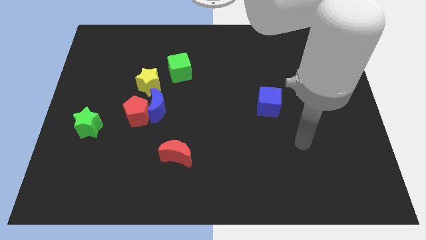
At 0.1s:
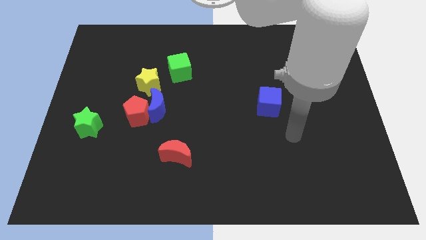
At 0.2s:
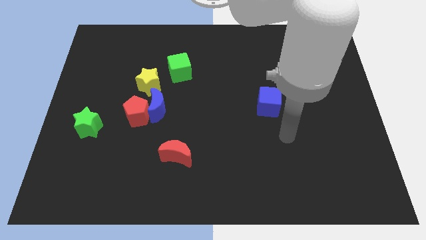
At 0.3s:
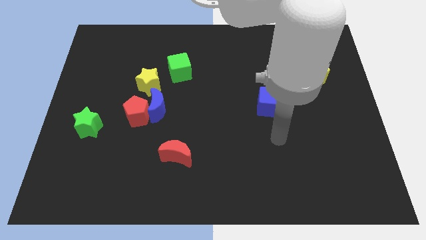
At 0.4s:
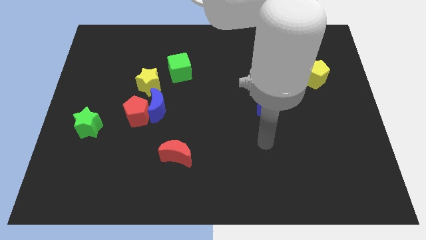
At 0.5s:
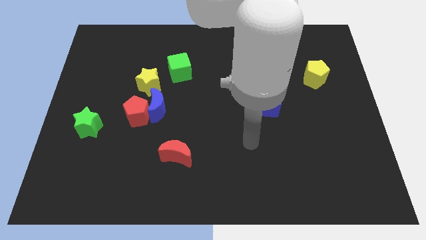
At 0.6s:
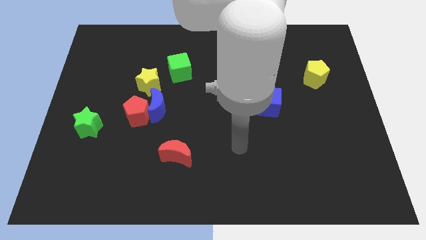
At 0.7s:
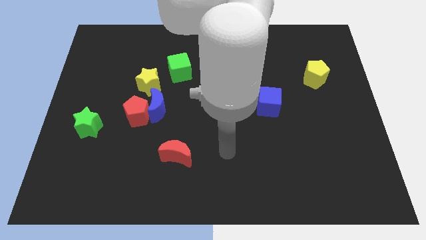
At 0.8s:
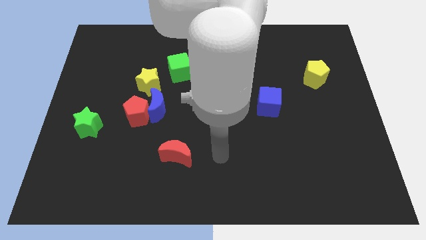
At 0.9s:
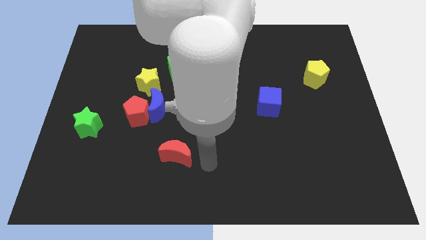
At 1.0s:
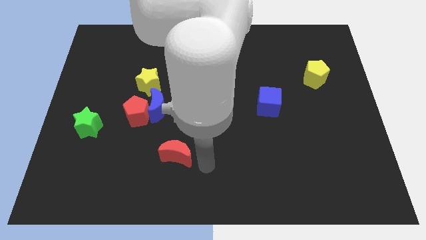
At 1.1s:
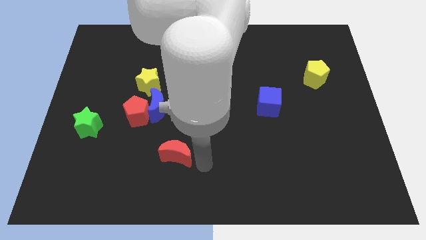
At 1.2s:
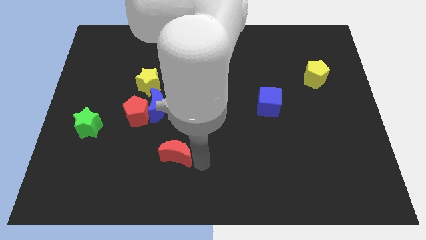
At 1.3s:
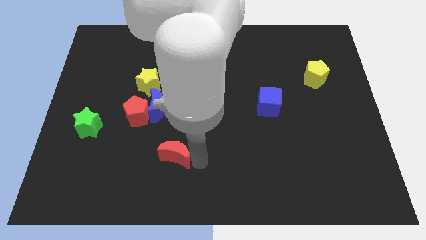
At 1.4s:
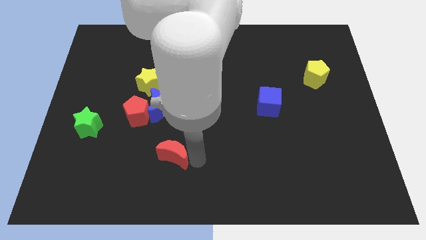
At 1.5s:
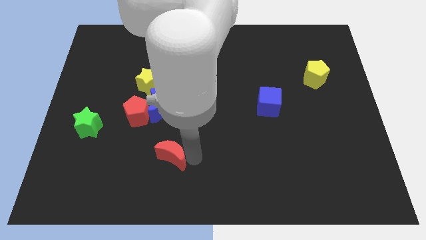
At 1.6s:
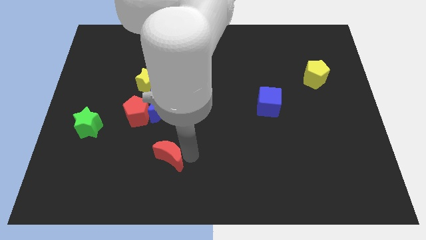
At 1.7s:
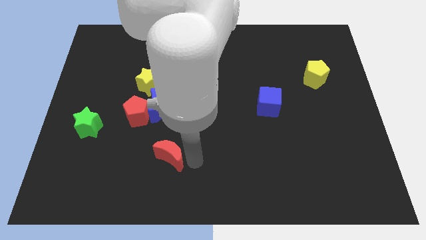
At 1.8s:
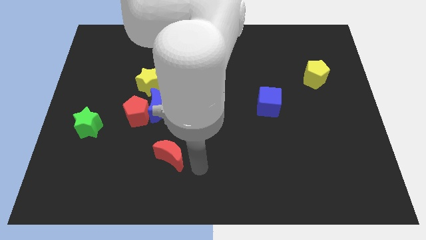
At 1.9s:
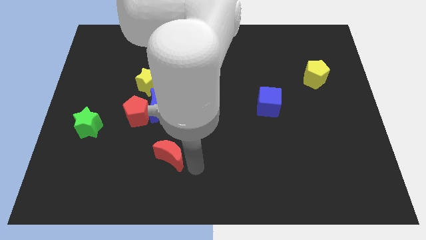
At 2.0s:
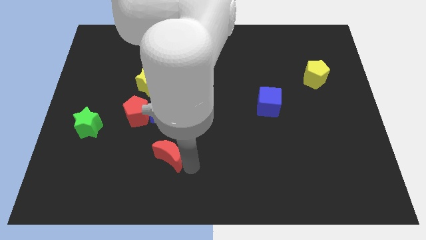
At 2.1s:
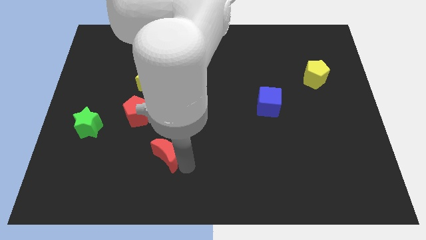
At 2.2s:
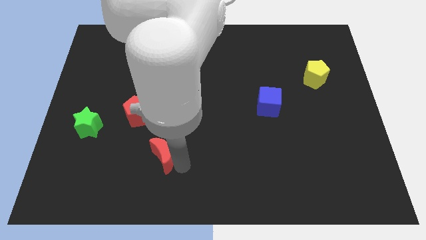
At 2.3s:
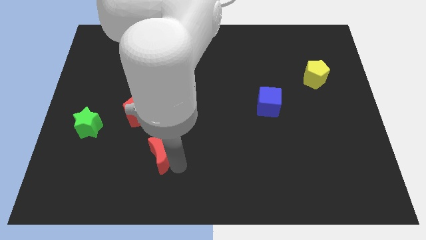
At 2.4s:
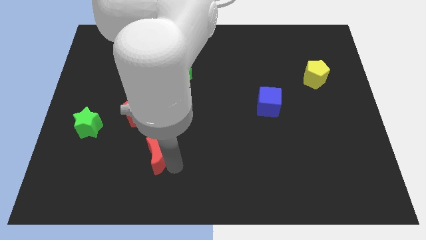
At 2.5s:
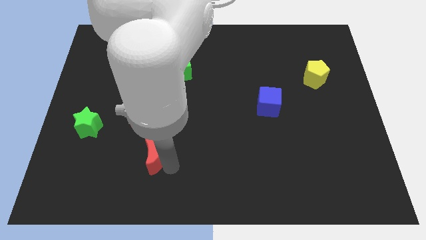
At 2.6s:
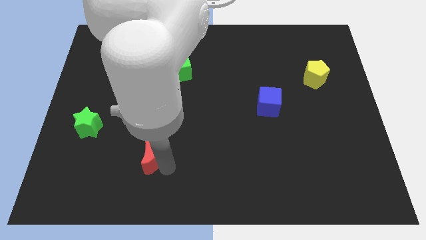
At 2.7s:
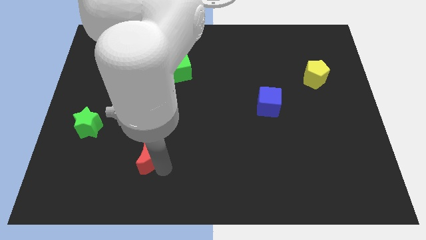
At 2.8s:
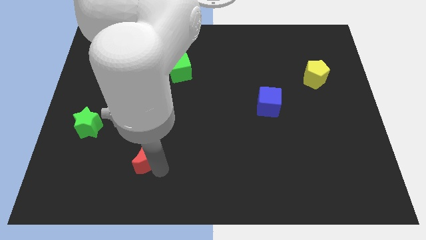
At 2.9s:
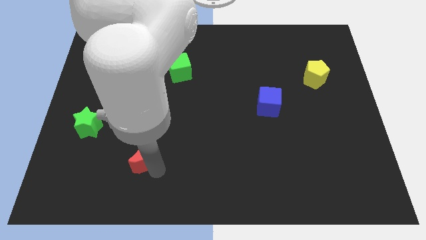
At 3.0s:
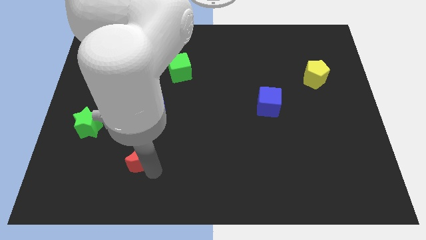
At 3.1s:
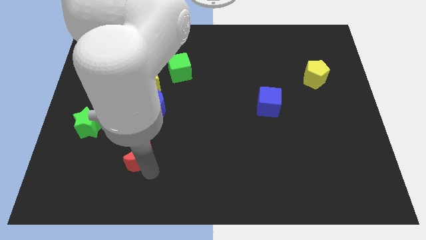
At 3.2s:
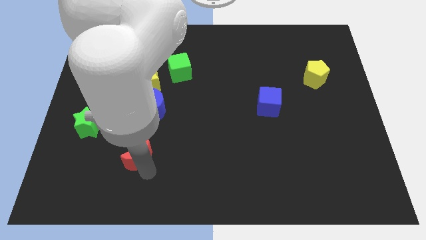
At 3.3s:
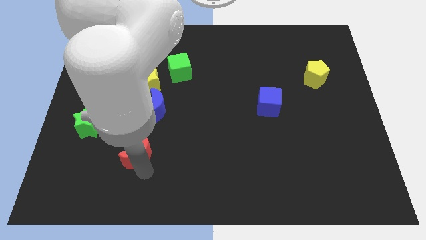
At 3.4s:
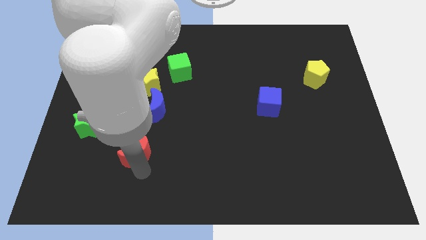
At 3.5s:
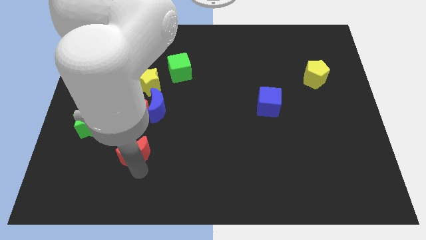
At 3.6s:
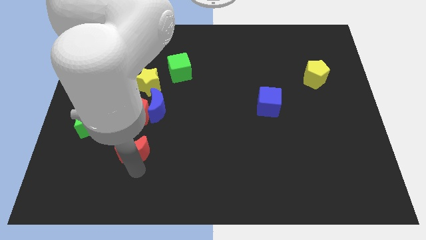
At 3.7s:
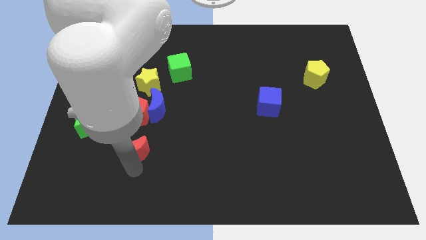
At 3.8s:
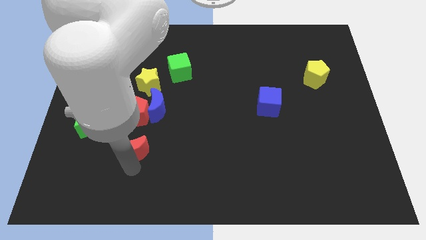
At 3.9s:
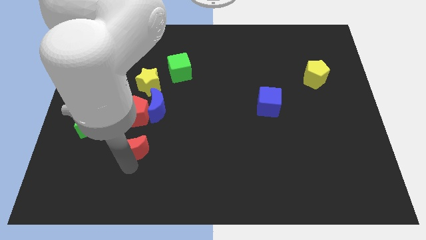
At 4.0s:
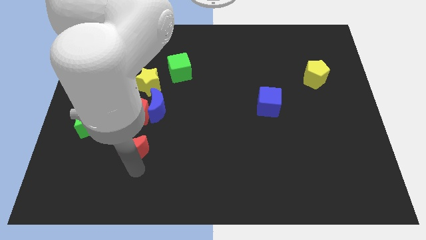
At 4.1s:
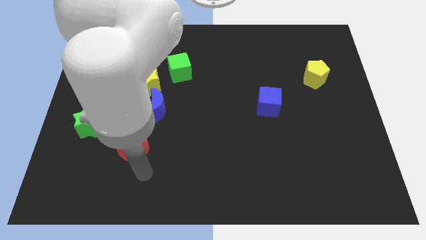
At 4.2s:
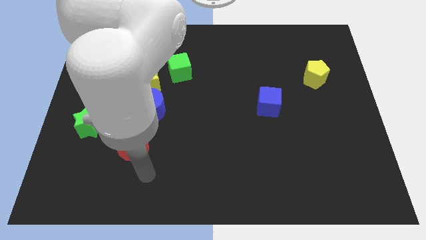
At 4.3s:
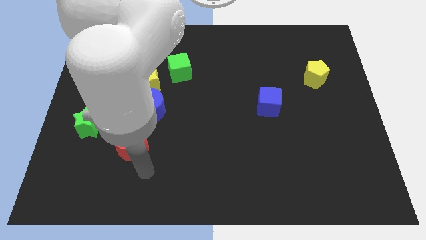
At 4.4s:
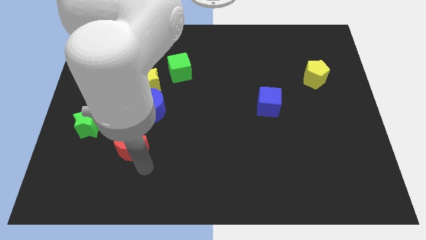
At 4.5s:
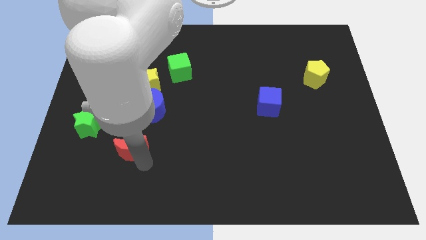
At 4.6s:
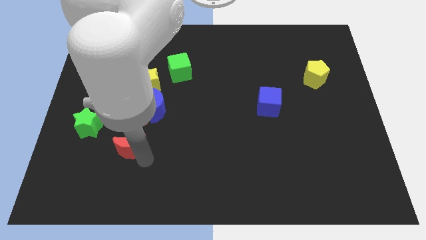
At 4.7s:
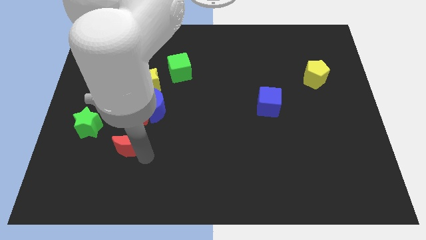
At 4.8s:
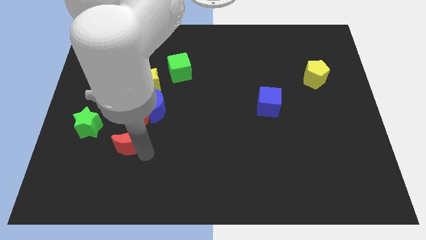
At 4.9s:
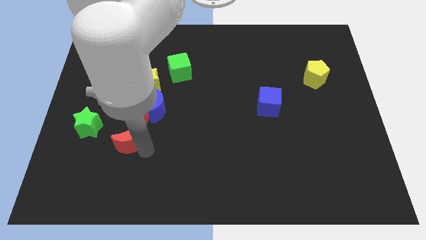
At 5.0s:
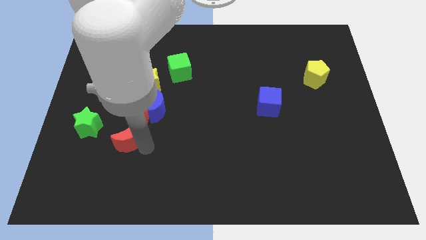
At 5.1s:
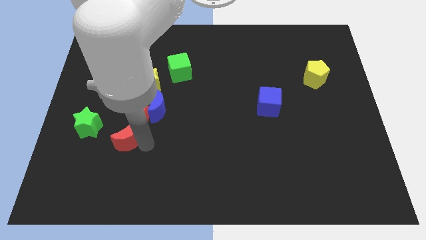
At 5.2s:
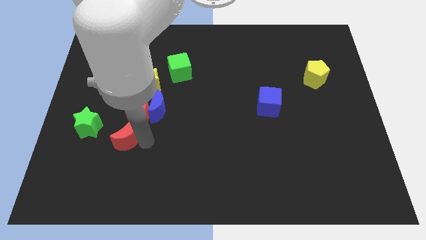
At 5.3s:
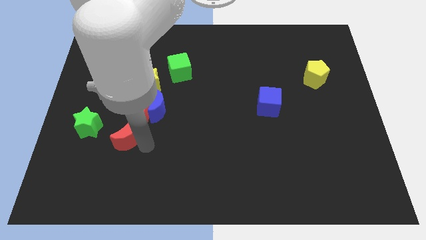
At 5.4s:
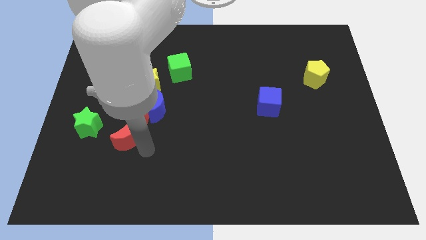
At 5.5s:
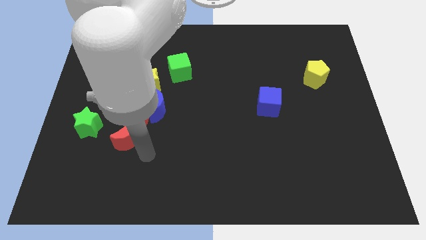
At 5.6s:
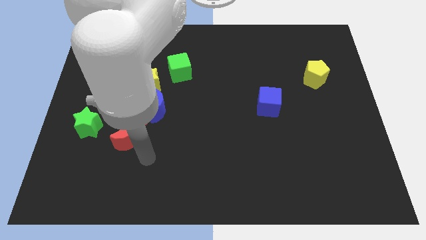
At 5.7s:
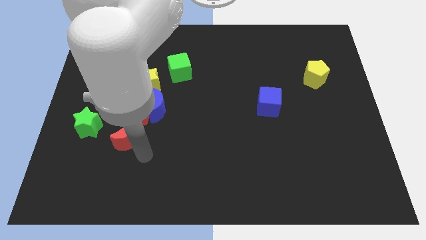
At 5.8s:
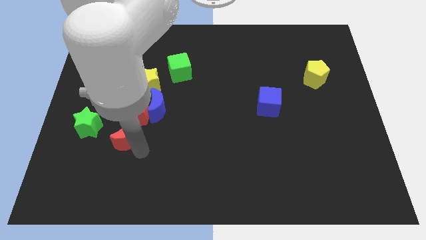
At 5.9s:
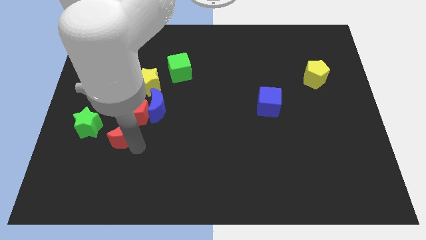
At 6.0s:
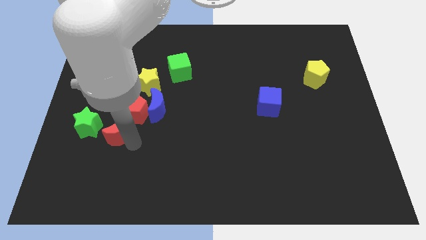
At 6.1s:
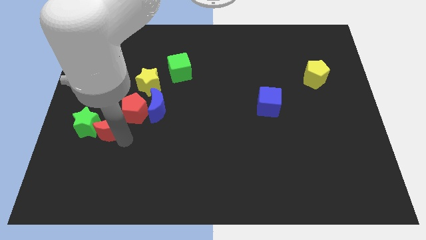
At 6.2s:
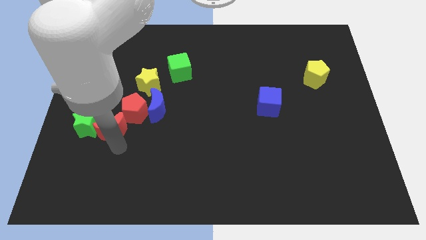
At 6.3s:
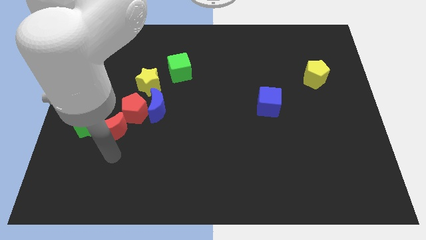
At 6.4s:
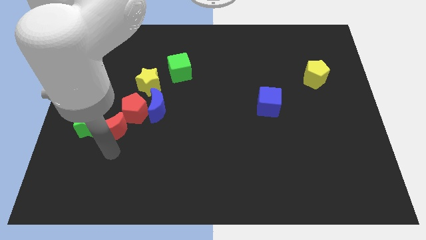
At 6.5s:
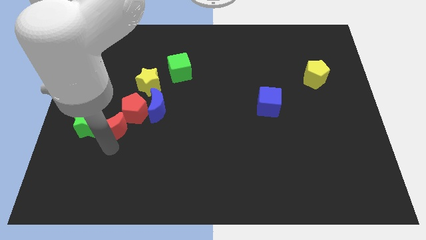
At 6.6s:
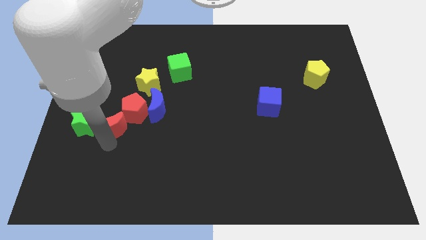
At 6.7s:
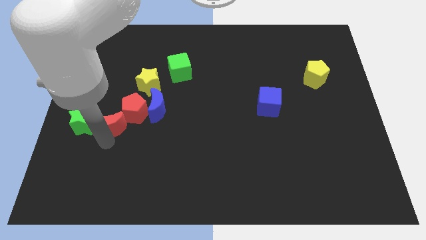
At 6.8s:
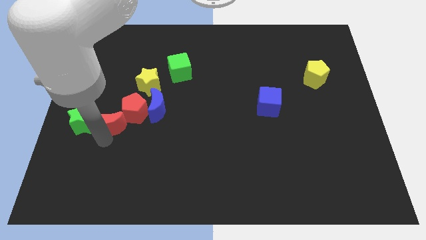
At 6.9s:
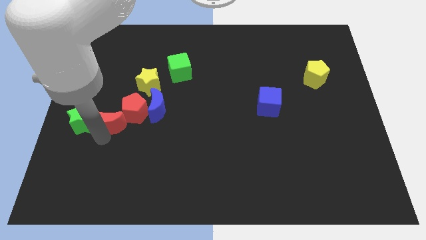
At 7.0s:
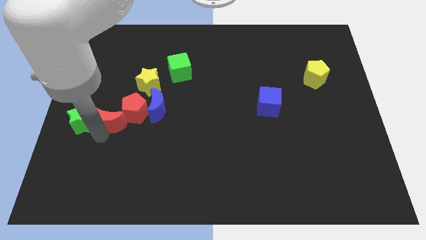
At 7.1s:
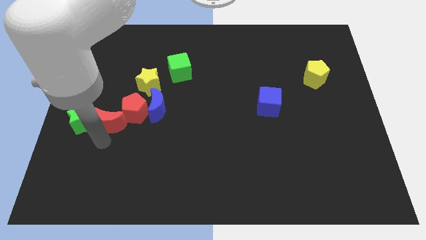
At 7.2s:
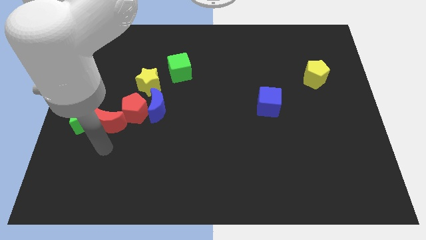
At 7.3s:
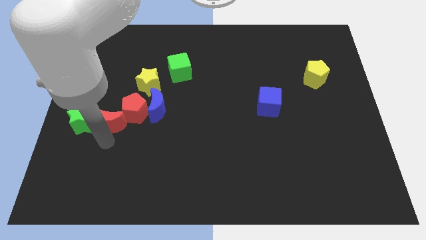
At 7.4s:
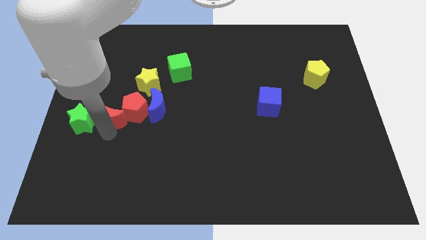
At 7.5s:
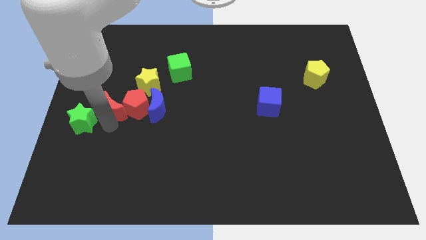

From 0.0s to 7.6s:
put the red moon to the top left side of the red pentagon
